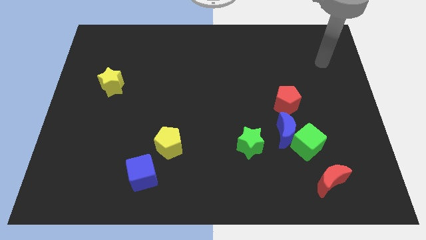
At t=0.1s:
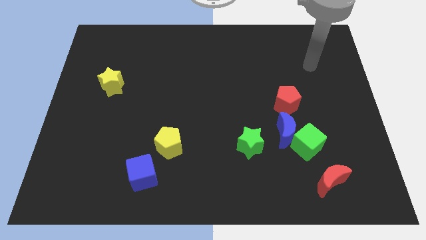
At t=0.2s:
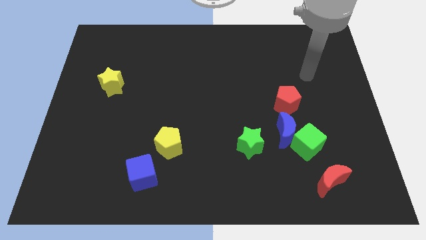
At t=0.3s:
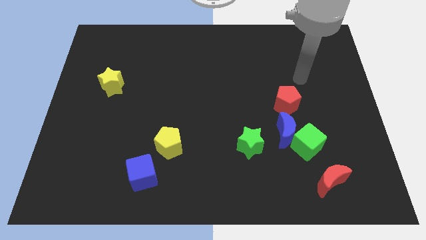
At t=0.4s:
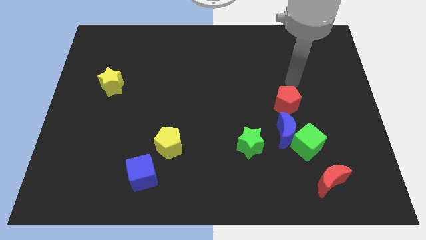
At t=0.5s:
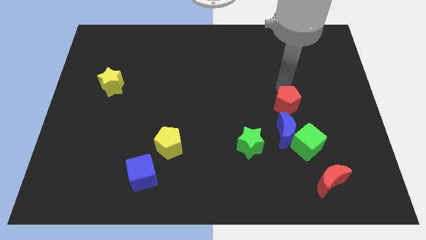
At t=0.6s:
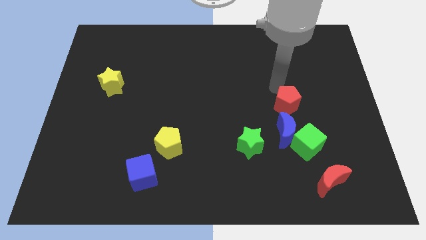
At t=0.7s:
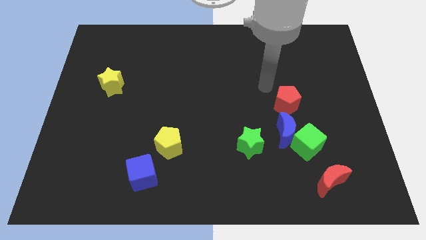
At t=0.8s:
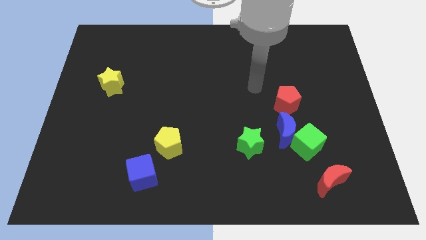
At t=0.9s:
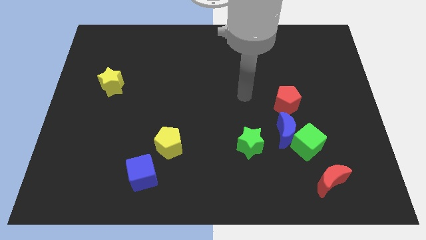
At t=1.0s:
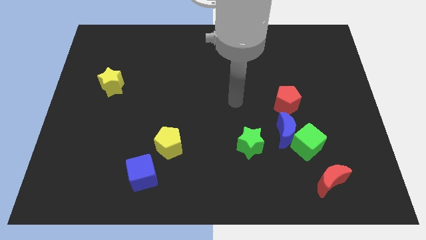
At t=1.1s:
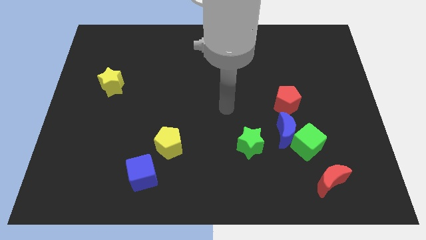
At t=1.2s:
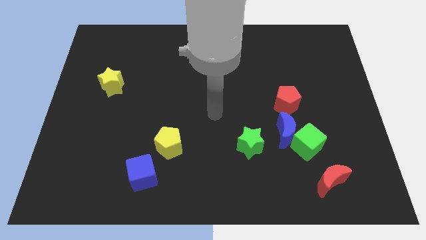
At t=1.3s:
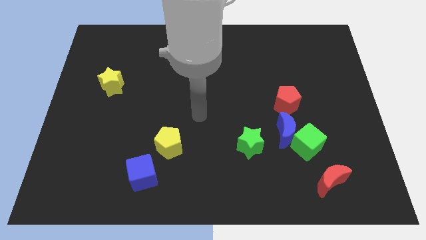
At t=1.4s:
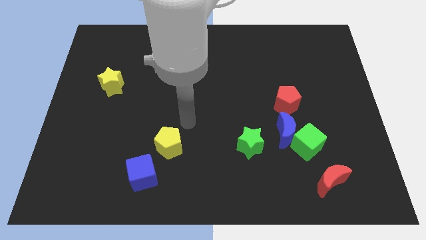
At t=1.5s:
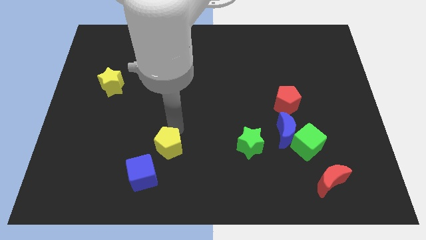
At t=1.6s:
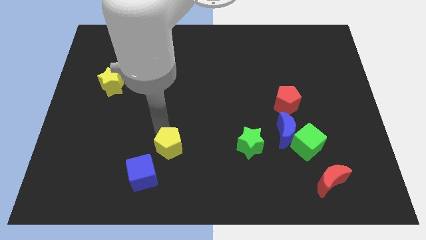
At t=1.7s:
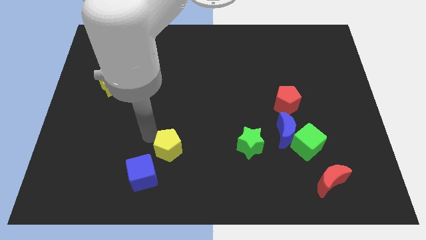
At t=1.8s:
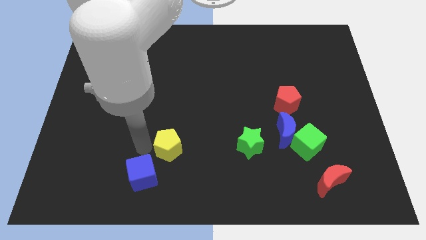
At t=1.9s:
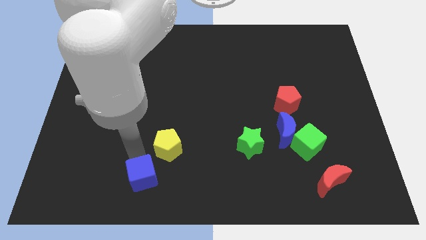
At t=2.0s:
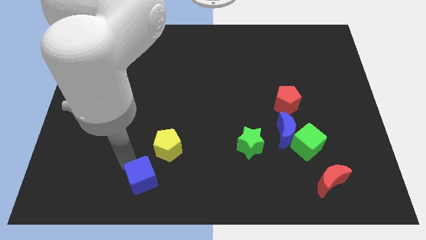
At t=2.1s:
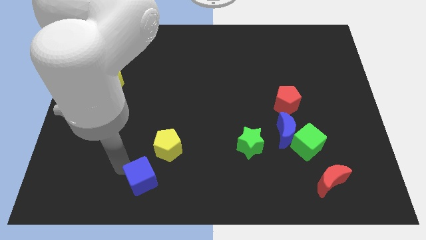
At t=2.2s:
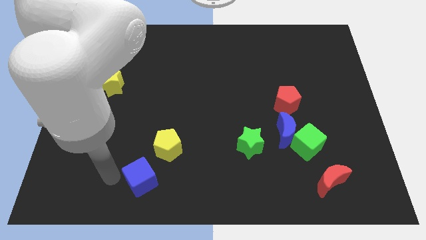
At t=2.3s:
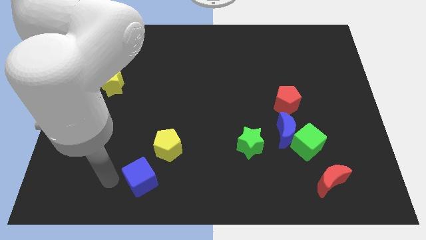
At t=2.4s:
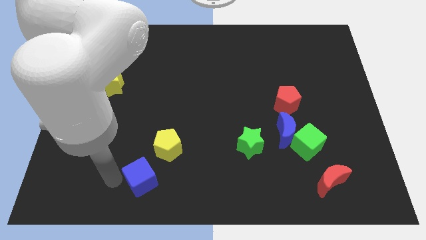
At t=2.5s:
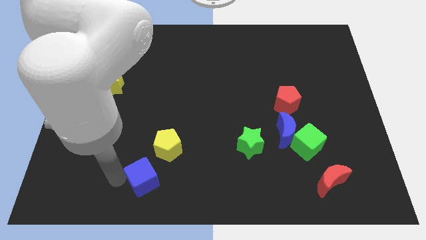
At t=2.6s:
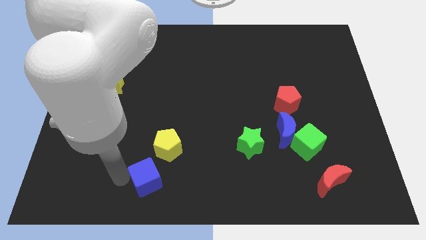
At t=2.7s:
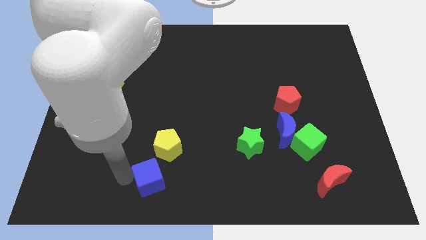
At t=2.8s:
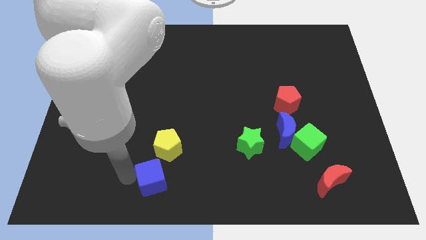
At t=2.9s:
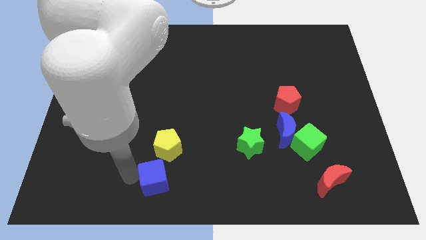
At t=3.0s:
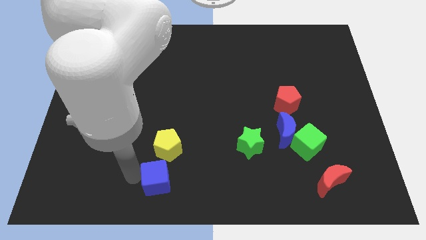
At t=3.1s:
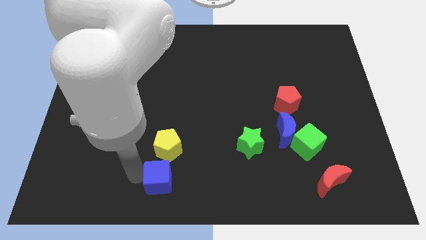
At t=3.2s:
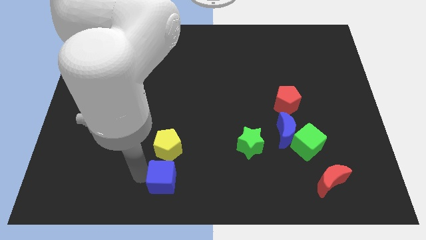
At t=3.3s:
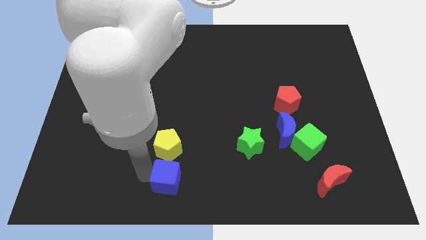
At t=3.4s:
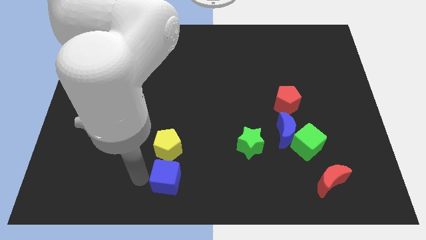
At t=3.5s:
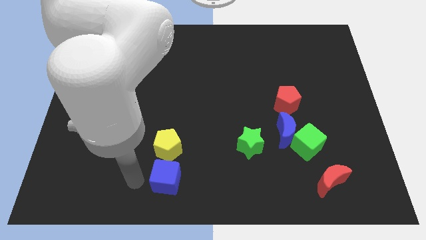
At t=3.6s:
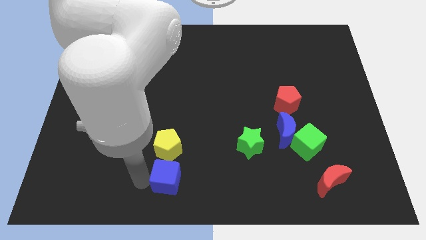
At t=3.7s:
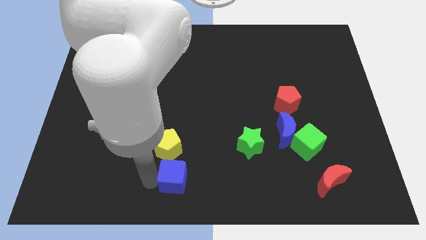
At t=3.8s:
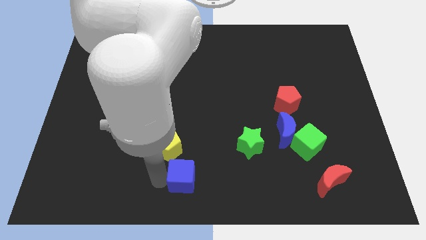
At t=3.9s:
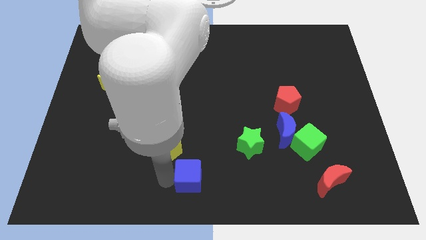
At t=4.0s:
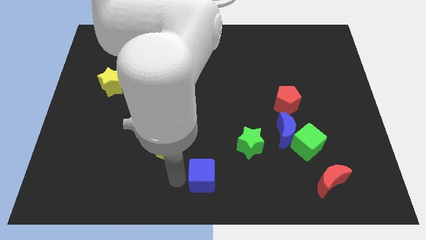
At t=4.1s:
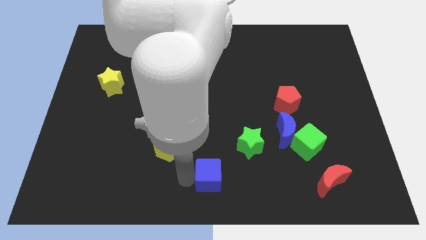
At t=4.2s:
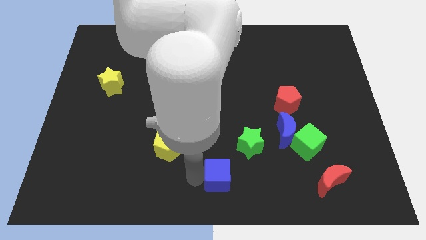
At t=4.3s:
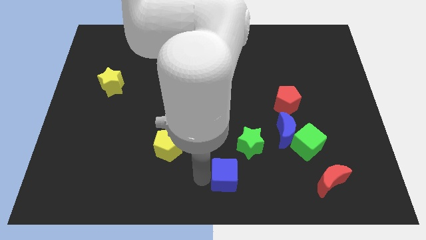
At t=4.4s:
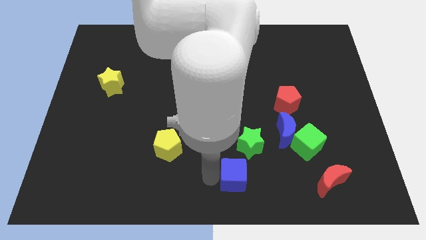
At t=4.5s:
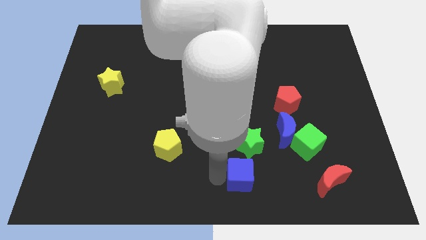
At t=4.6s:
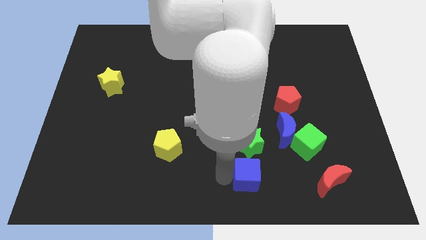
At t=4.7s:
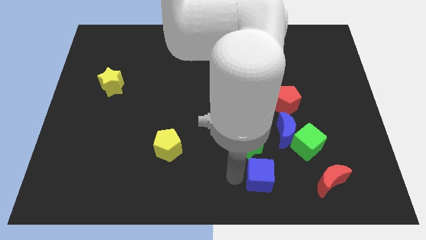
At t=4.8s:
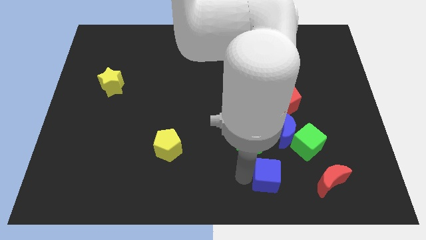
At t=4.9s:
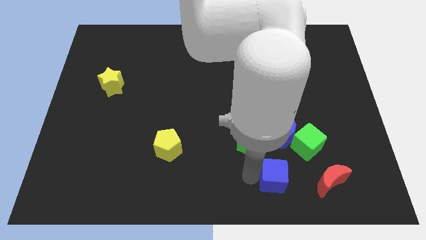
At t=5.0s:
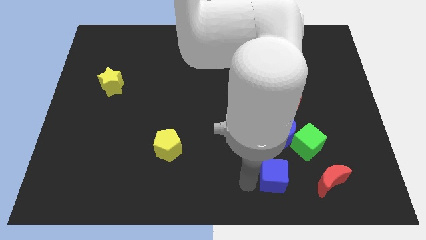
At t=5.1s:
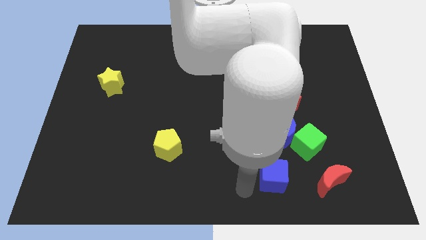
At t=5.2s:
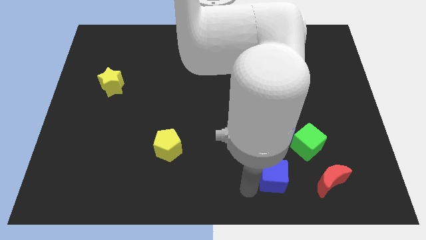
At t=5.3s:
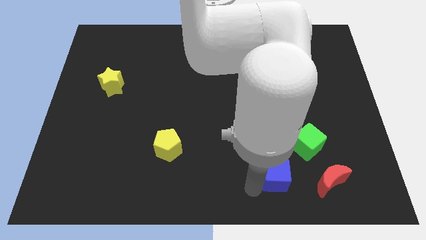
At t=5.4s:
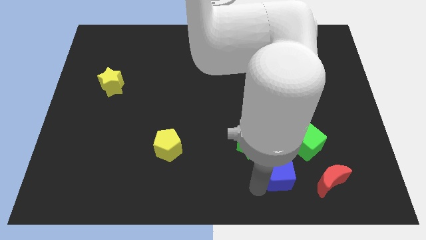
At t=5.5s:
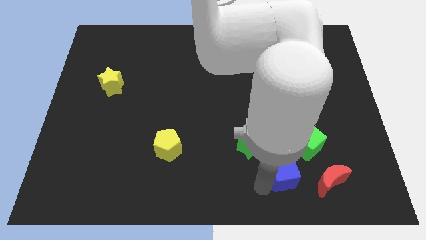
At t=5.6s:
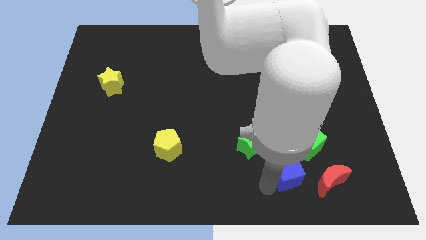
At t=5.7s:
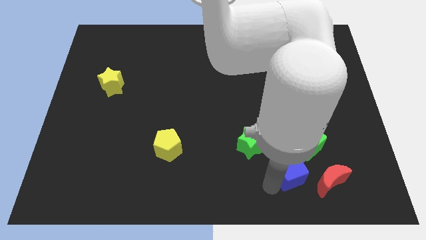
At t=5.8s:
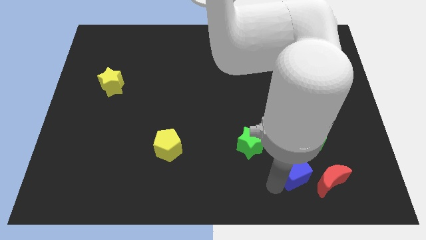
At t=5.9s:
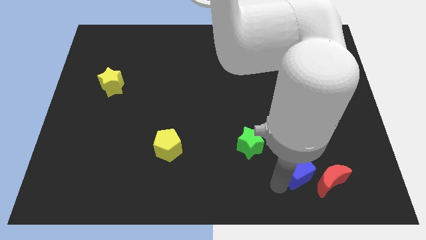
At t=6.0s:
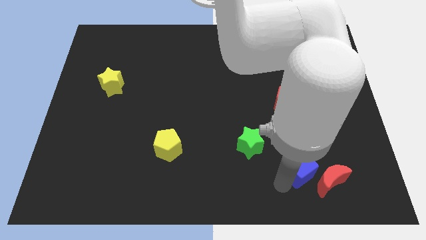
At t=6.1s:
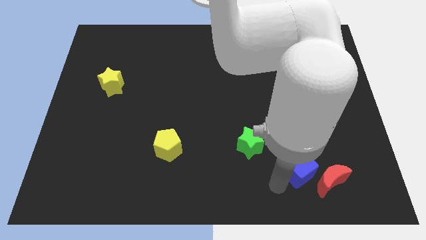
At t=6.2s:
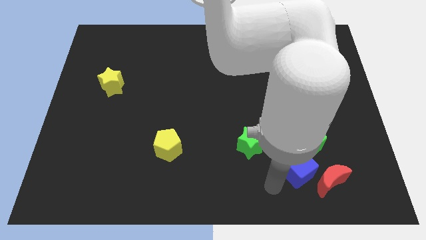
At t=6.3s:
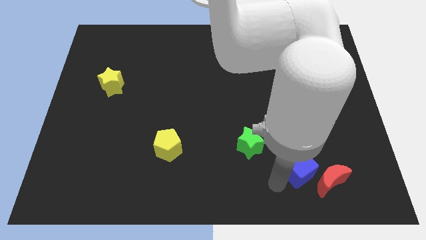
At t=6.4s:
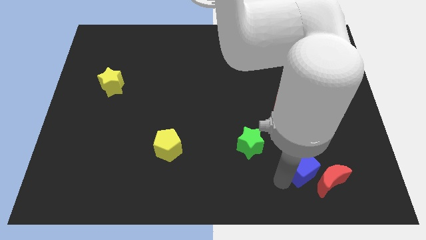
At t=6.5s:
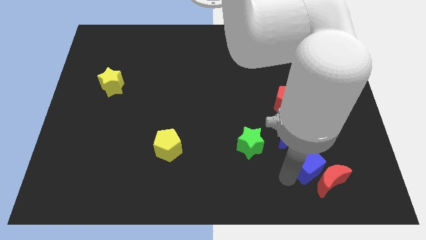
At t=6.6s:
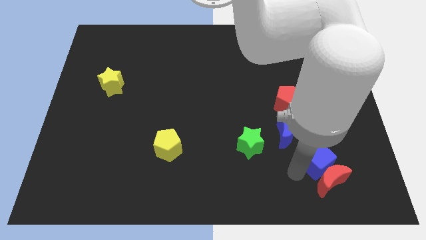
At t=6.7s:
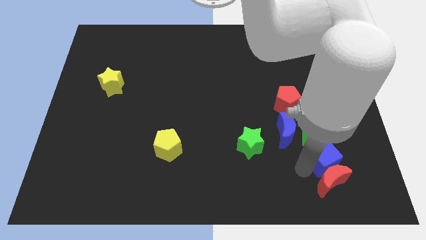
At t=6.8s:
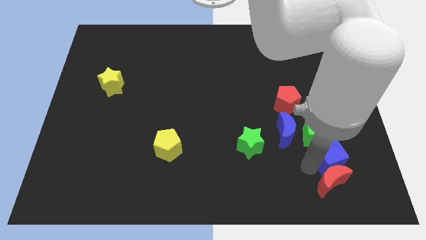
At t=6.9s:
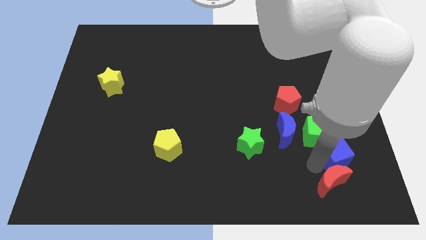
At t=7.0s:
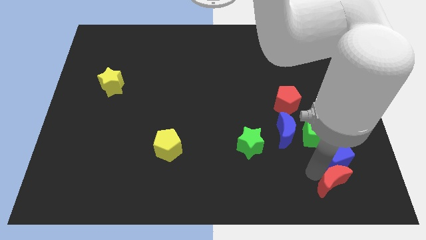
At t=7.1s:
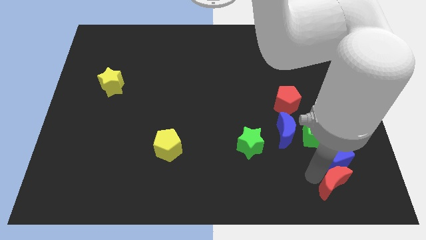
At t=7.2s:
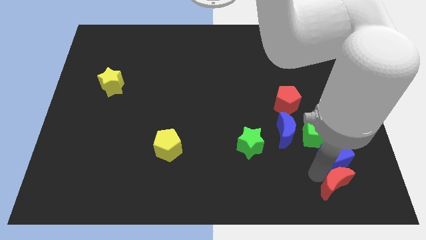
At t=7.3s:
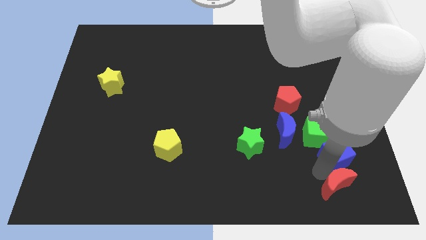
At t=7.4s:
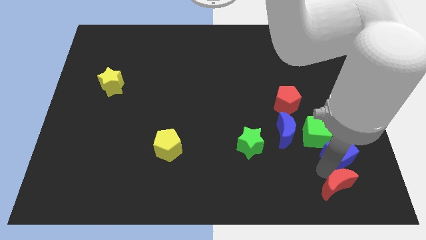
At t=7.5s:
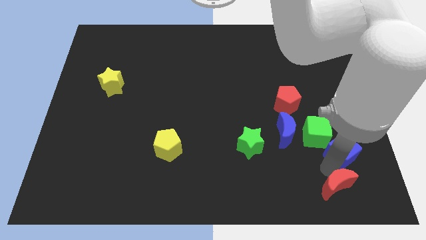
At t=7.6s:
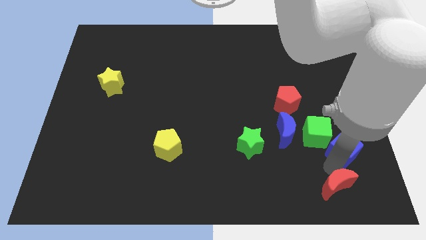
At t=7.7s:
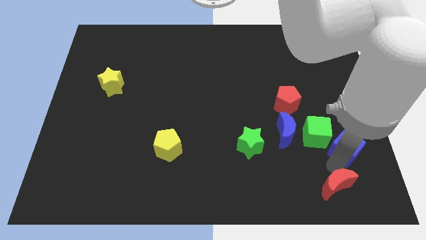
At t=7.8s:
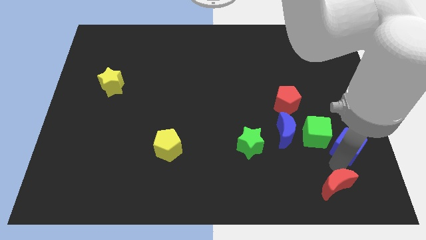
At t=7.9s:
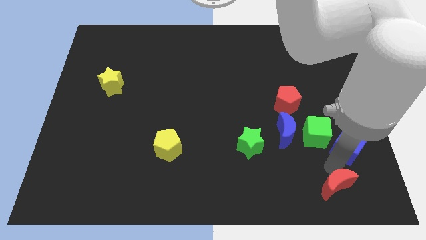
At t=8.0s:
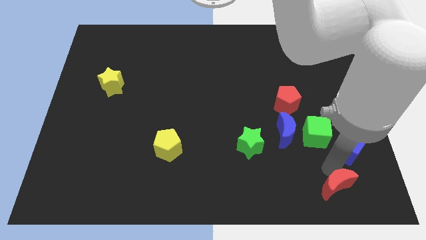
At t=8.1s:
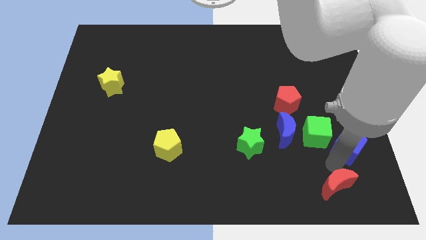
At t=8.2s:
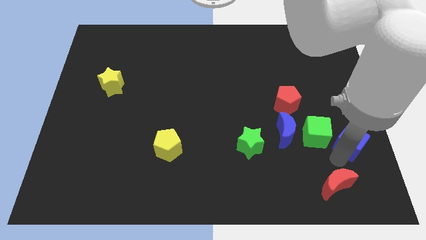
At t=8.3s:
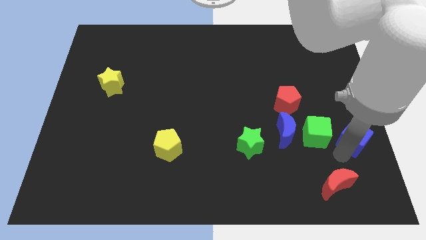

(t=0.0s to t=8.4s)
push the blue cube to the center right
